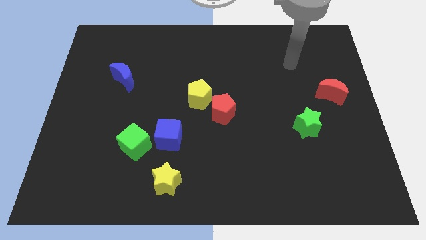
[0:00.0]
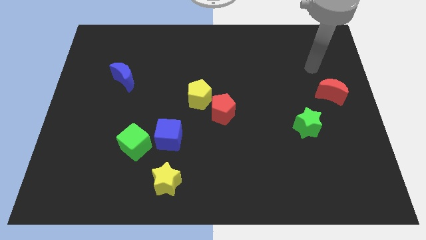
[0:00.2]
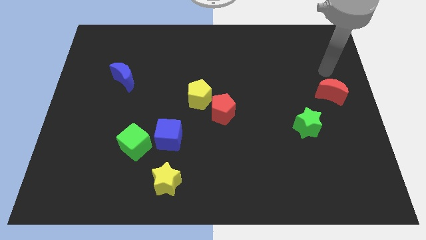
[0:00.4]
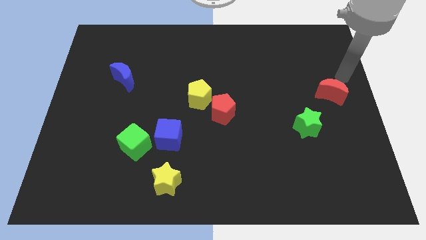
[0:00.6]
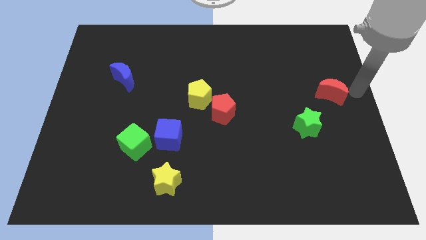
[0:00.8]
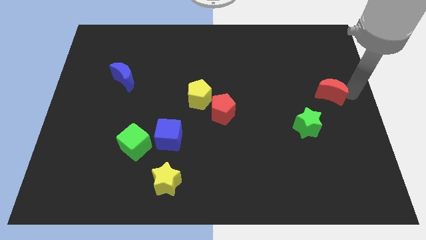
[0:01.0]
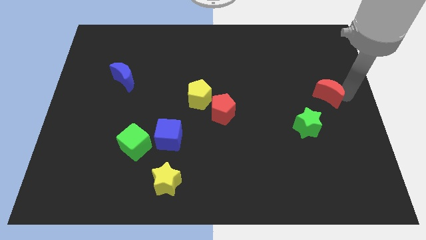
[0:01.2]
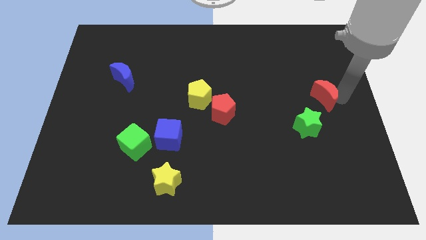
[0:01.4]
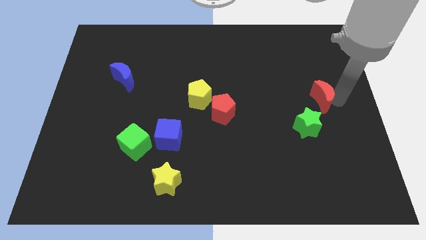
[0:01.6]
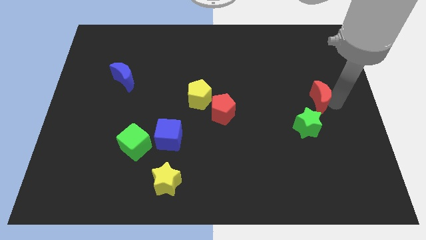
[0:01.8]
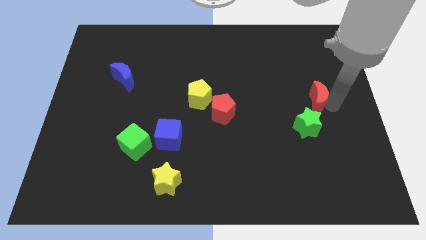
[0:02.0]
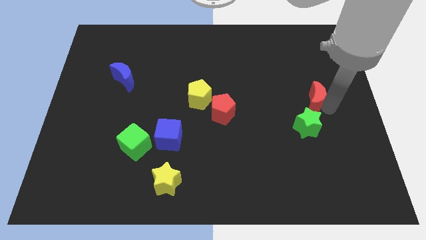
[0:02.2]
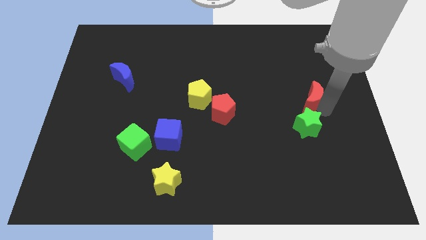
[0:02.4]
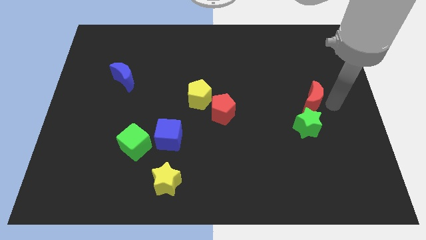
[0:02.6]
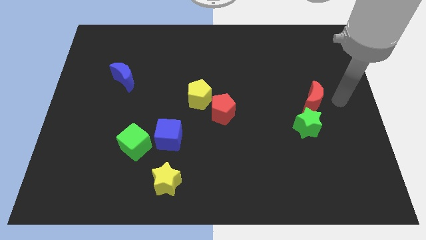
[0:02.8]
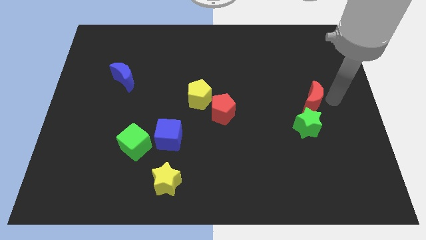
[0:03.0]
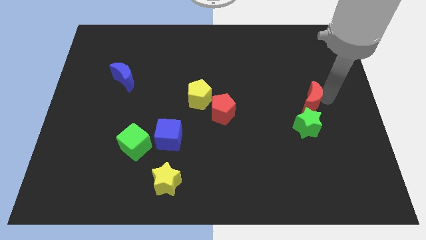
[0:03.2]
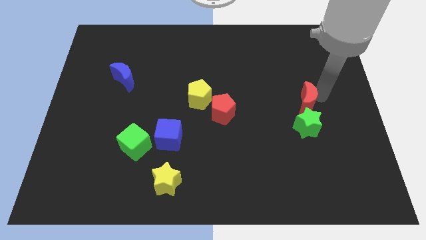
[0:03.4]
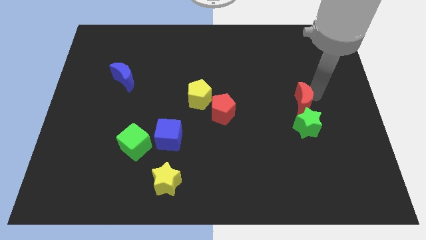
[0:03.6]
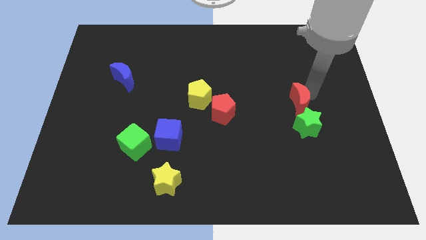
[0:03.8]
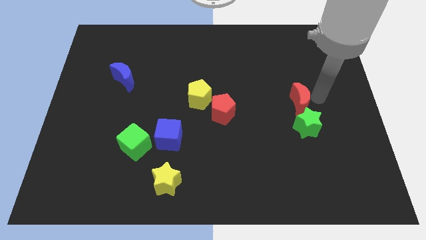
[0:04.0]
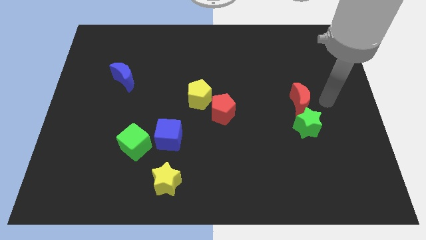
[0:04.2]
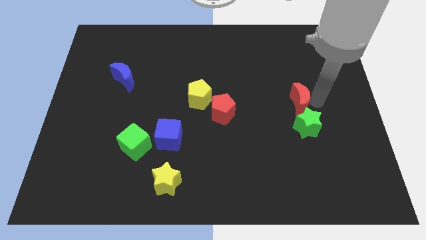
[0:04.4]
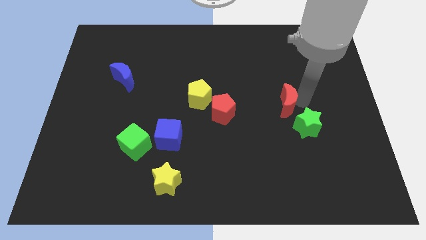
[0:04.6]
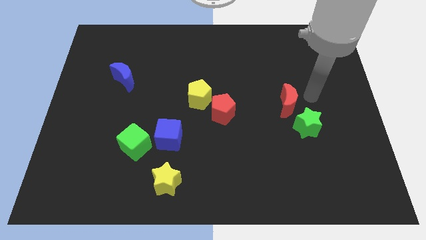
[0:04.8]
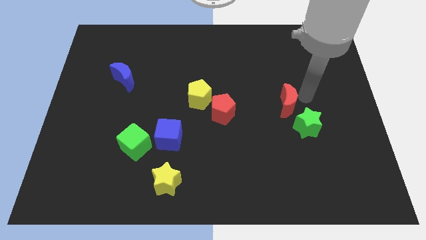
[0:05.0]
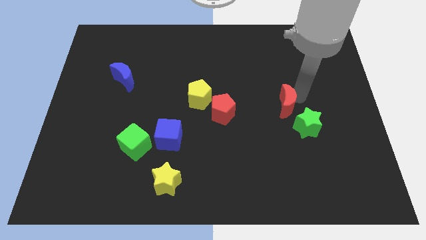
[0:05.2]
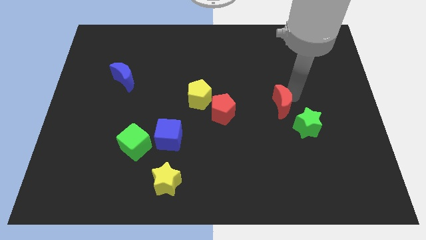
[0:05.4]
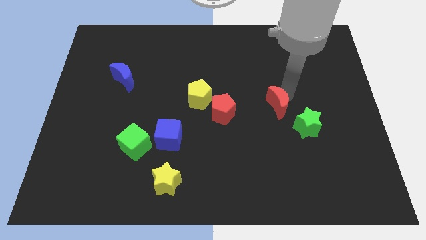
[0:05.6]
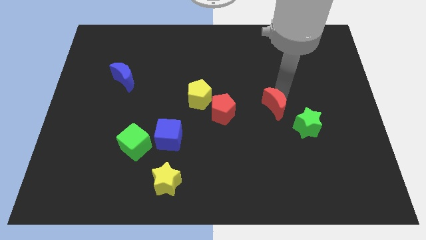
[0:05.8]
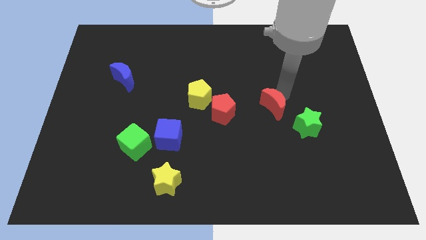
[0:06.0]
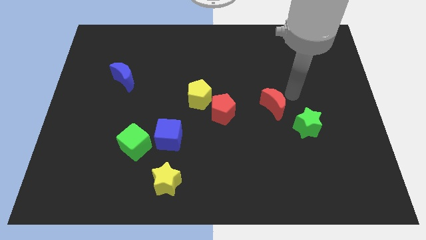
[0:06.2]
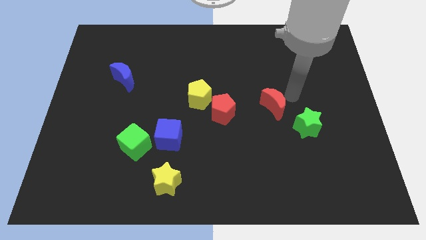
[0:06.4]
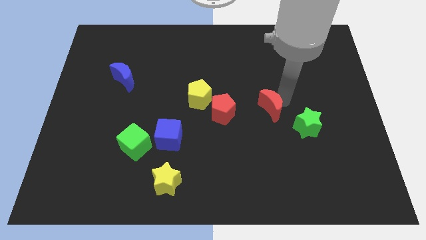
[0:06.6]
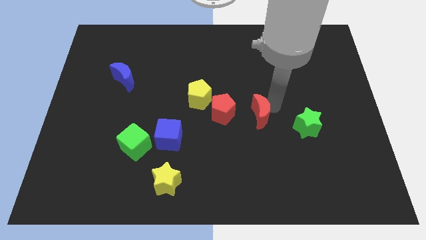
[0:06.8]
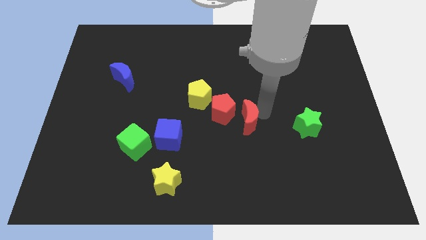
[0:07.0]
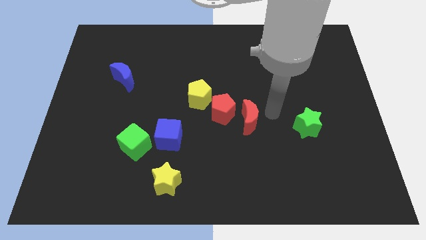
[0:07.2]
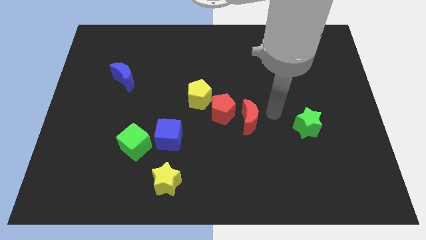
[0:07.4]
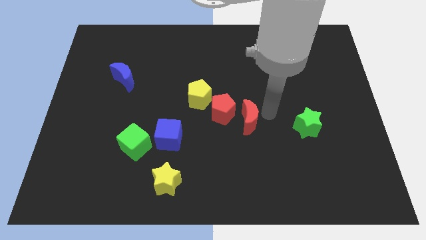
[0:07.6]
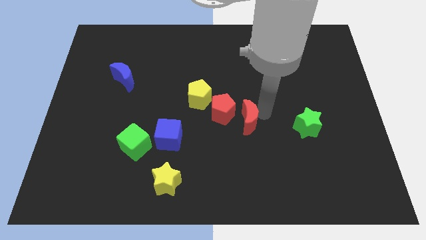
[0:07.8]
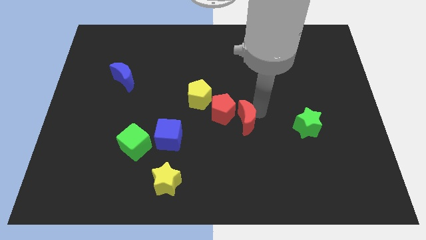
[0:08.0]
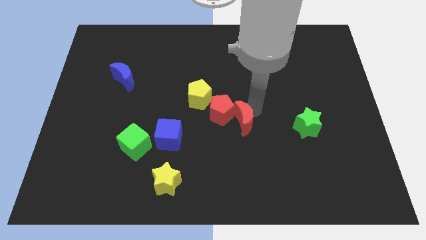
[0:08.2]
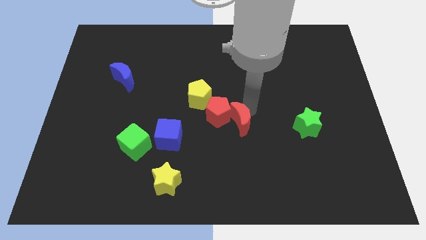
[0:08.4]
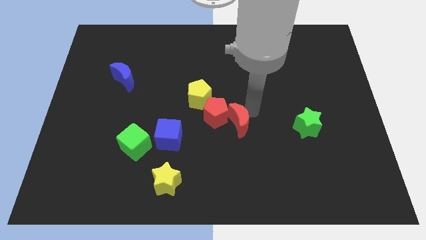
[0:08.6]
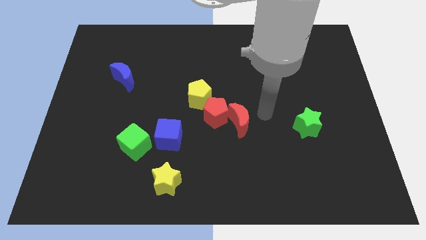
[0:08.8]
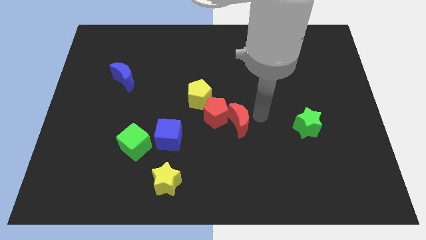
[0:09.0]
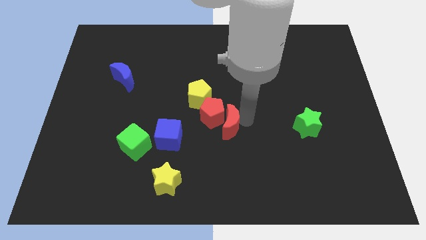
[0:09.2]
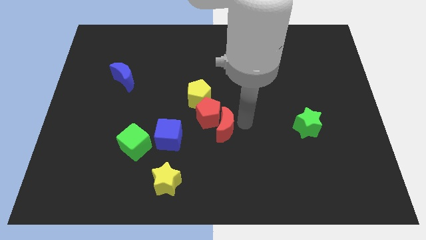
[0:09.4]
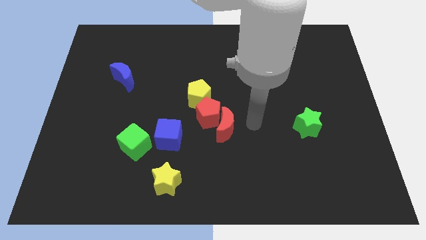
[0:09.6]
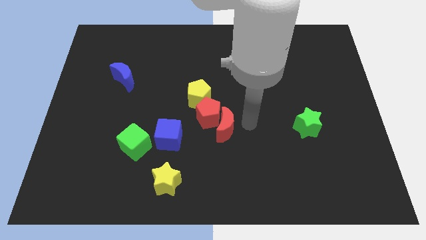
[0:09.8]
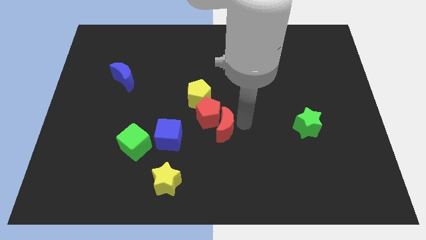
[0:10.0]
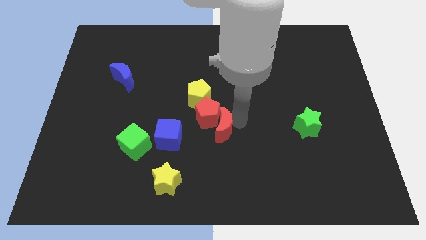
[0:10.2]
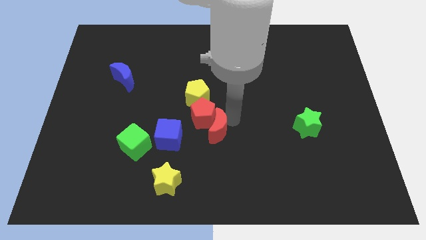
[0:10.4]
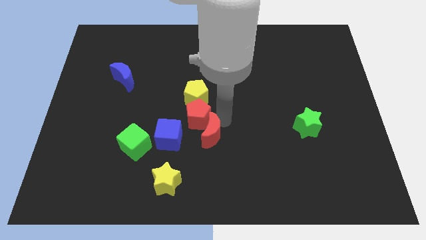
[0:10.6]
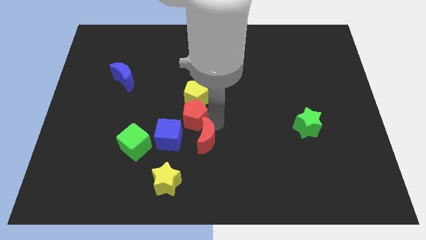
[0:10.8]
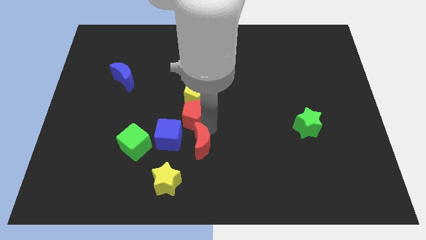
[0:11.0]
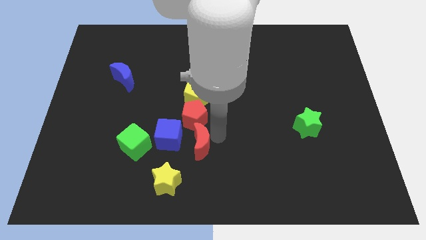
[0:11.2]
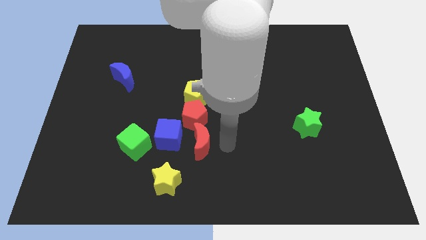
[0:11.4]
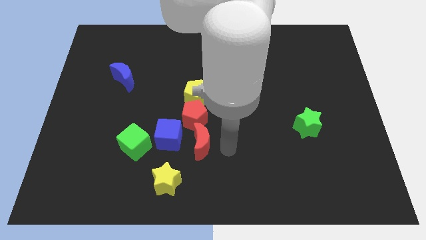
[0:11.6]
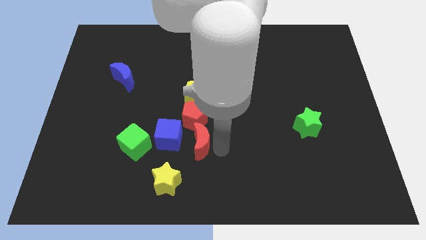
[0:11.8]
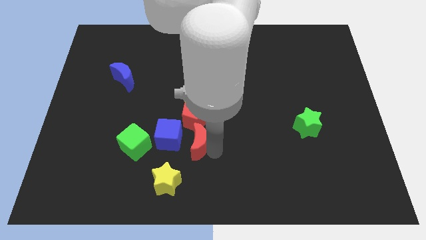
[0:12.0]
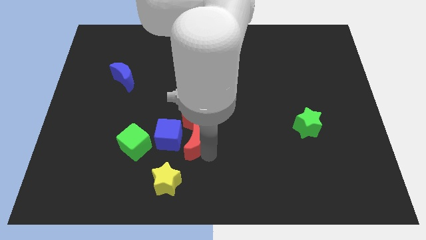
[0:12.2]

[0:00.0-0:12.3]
put the red moon to the blue cube

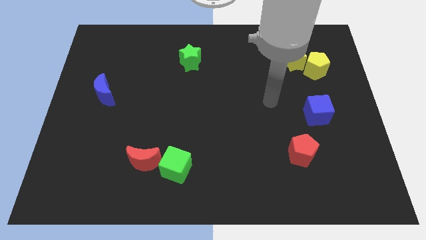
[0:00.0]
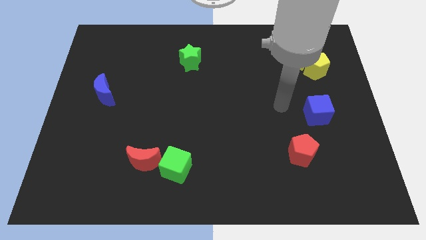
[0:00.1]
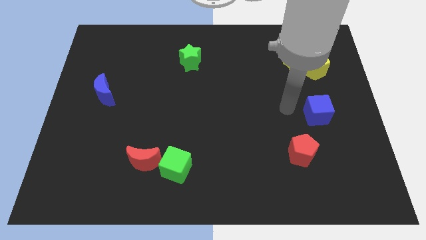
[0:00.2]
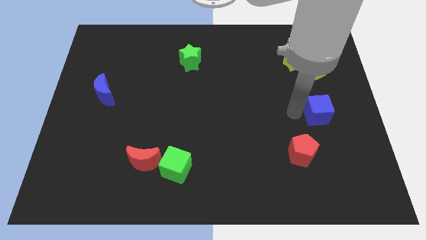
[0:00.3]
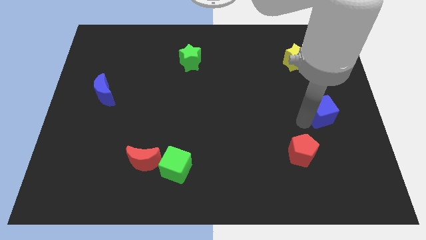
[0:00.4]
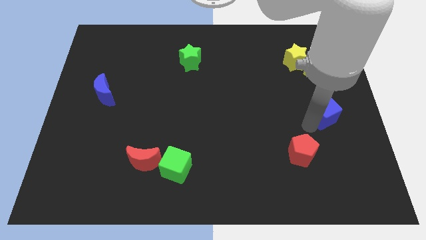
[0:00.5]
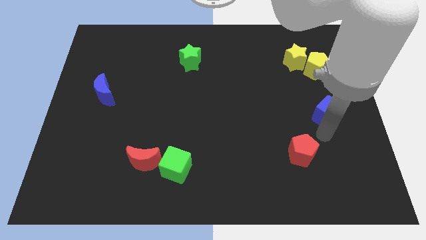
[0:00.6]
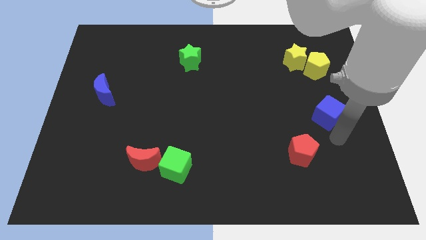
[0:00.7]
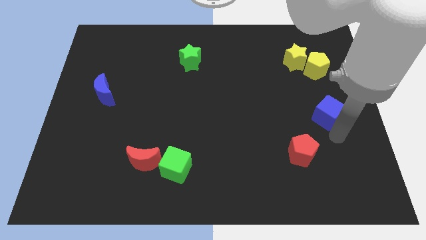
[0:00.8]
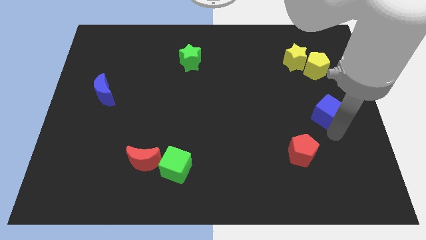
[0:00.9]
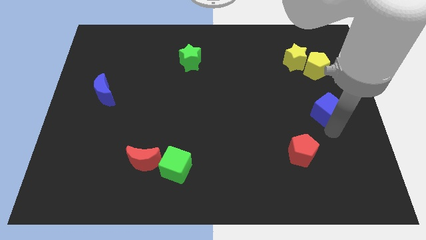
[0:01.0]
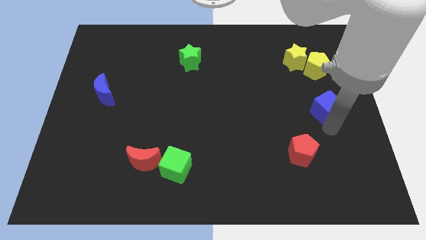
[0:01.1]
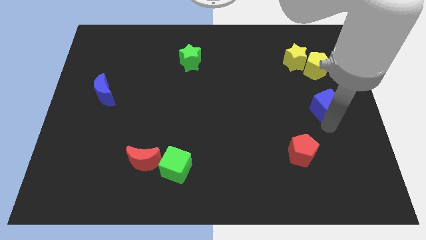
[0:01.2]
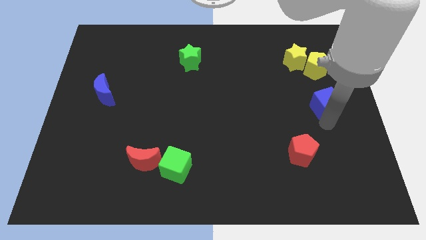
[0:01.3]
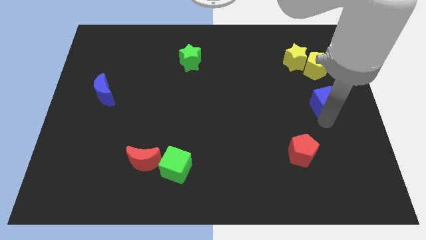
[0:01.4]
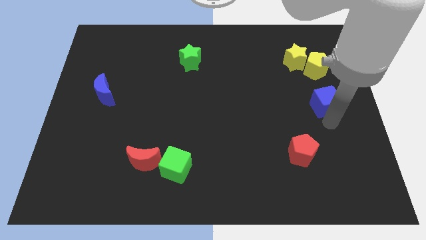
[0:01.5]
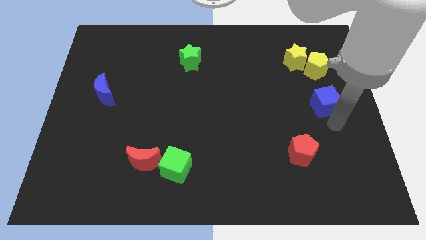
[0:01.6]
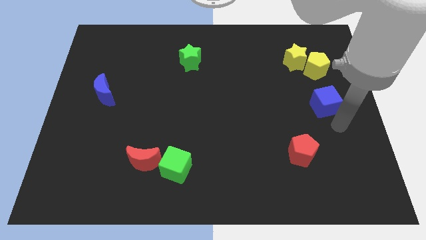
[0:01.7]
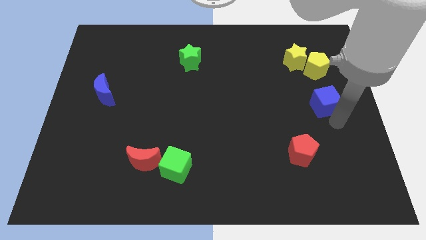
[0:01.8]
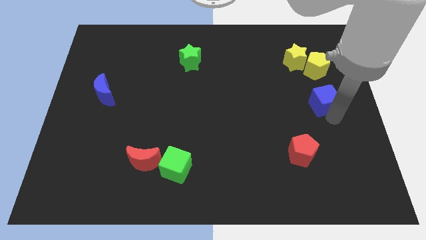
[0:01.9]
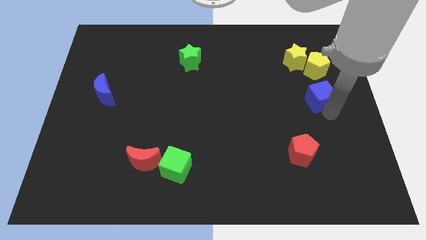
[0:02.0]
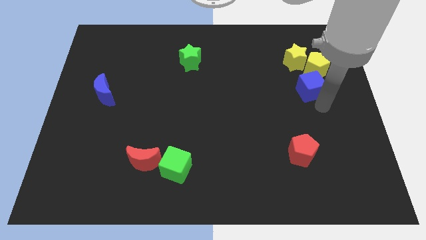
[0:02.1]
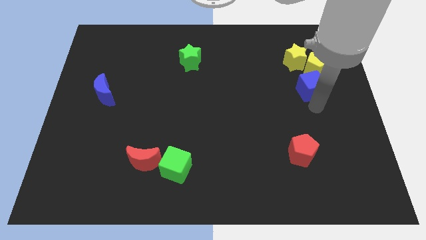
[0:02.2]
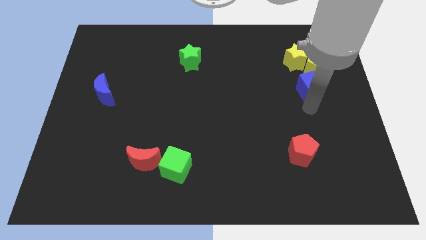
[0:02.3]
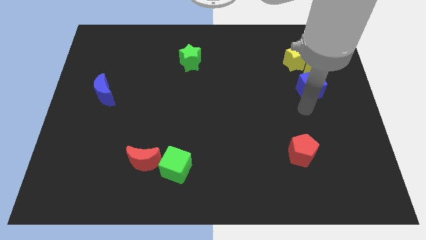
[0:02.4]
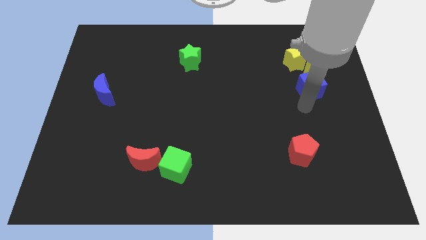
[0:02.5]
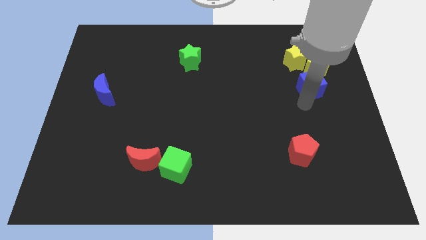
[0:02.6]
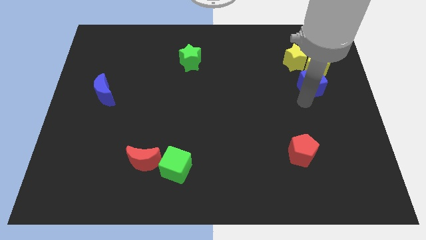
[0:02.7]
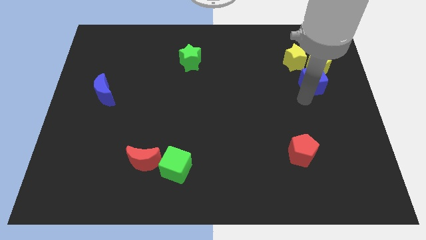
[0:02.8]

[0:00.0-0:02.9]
slide the blue cube towards the yellow pentagon
